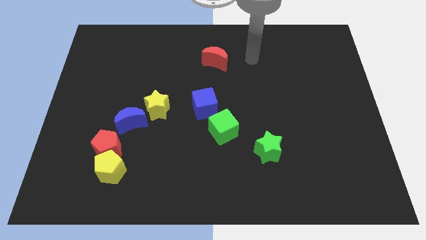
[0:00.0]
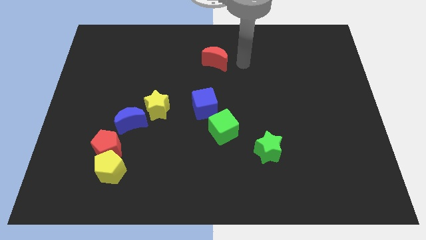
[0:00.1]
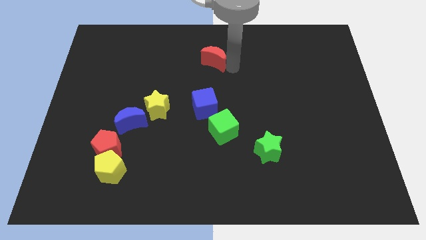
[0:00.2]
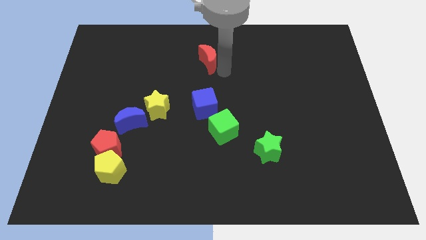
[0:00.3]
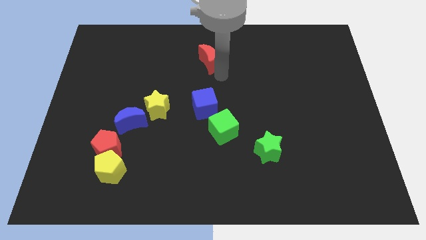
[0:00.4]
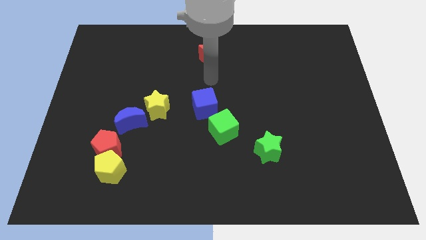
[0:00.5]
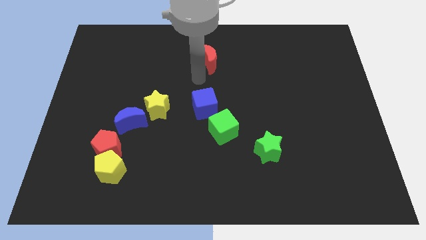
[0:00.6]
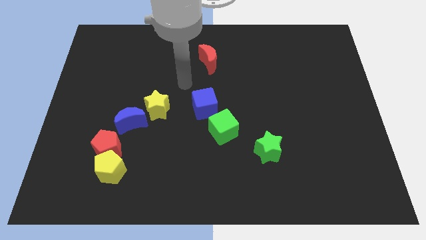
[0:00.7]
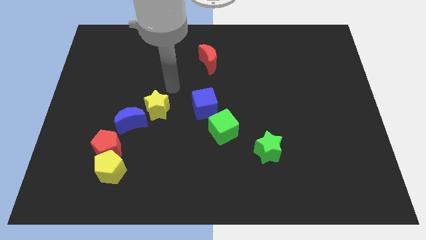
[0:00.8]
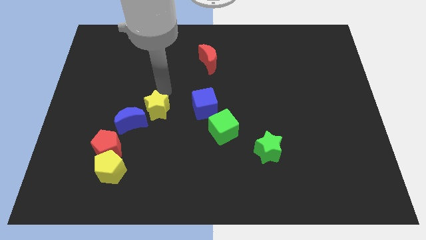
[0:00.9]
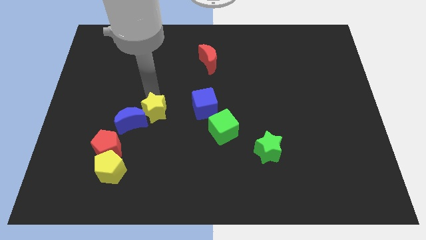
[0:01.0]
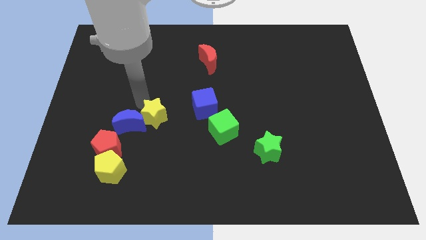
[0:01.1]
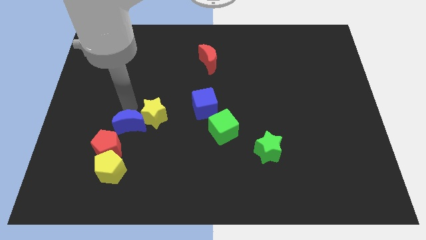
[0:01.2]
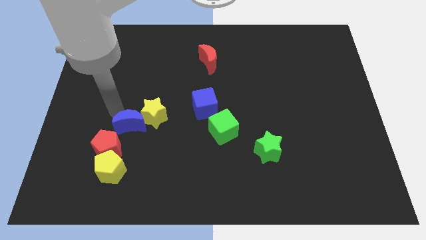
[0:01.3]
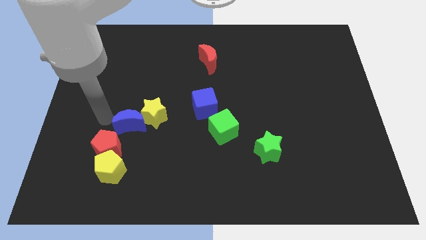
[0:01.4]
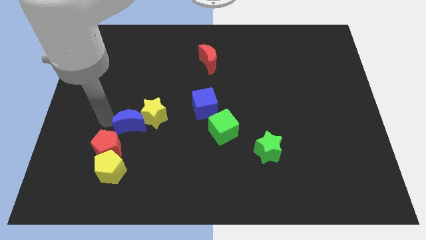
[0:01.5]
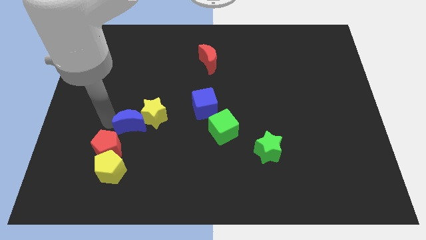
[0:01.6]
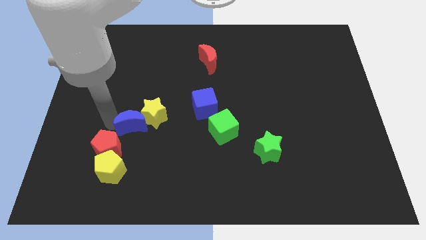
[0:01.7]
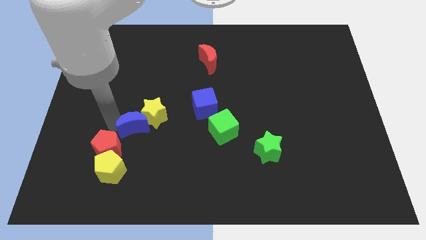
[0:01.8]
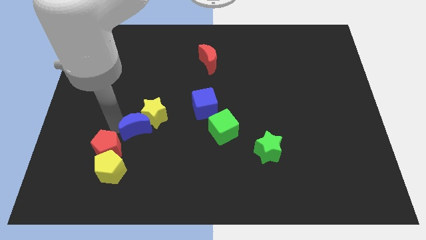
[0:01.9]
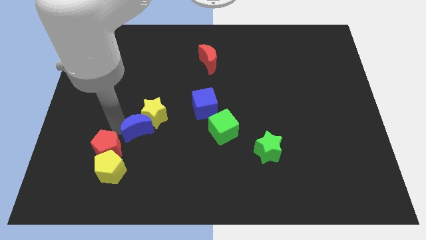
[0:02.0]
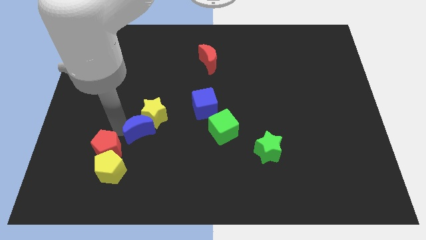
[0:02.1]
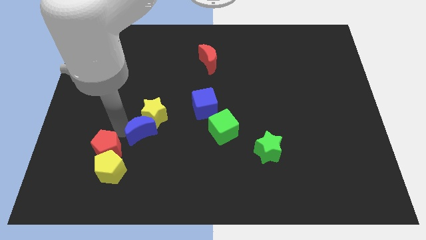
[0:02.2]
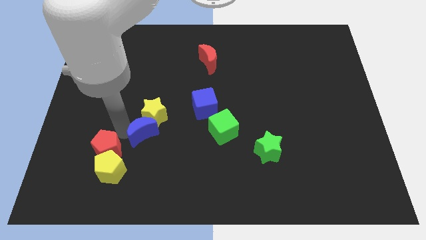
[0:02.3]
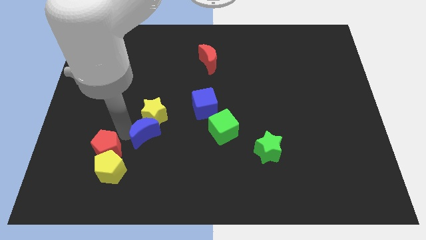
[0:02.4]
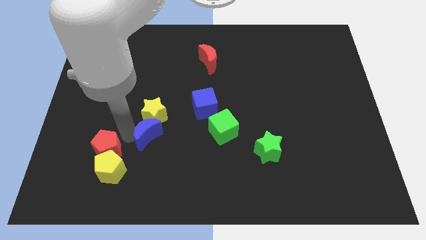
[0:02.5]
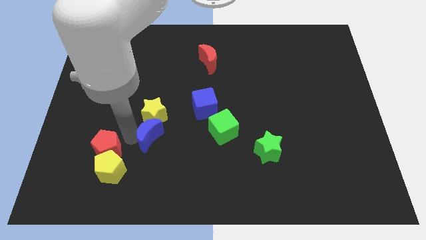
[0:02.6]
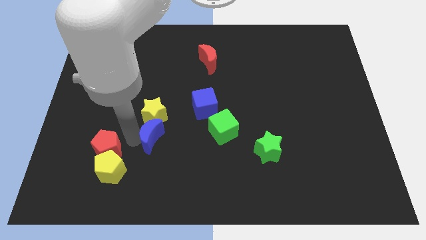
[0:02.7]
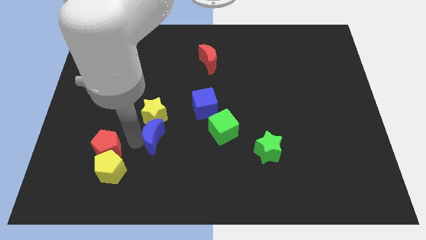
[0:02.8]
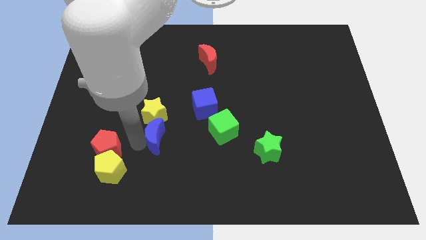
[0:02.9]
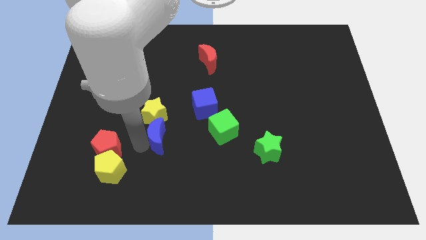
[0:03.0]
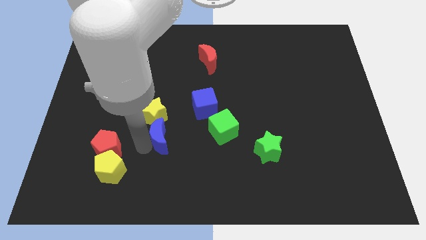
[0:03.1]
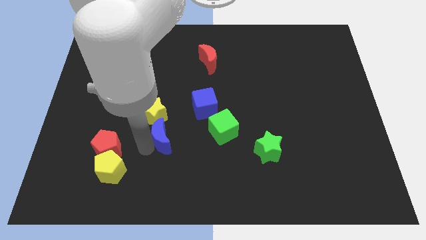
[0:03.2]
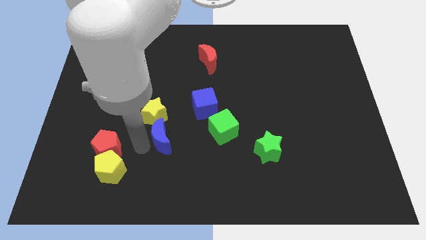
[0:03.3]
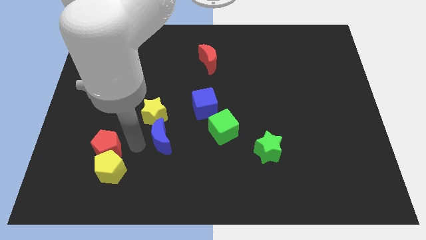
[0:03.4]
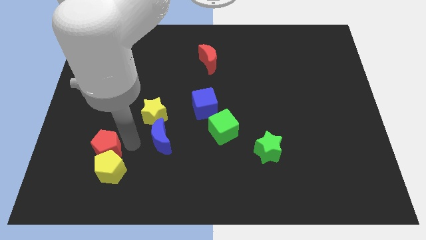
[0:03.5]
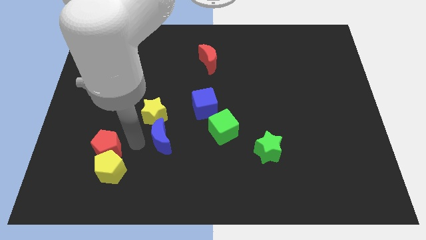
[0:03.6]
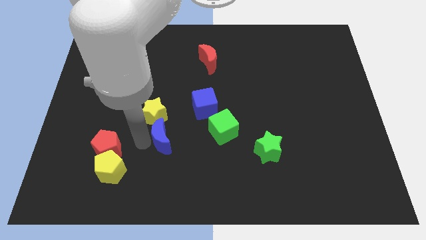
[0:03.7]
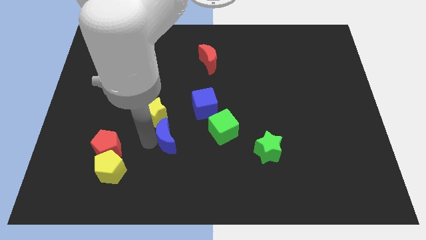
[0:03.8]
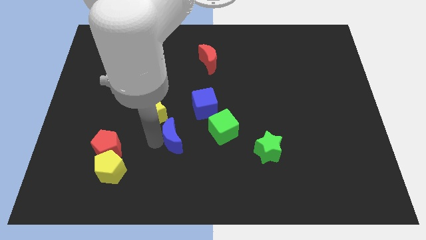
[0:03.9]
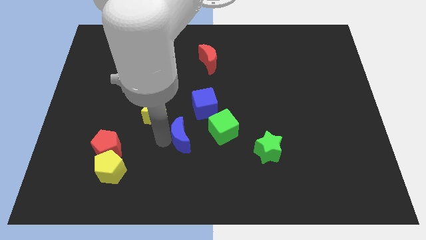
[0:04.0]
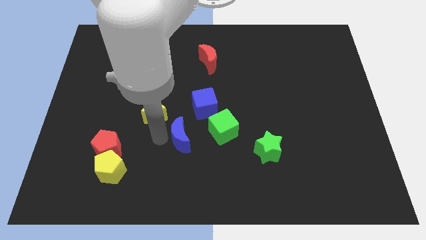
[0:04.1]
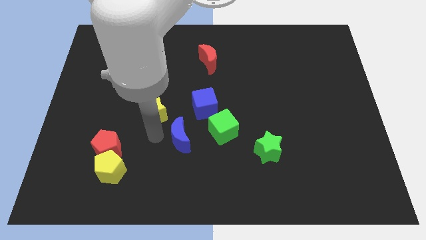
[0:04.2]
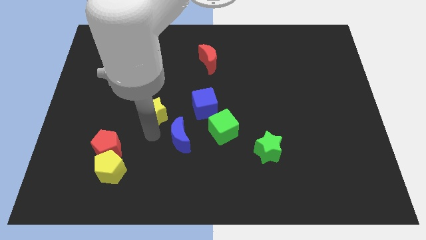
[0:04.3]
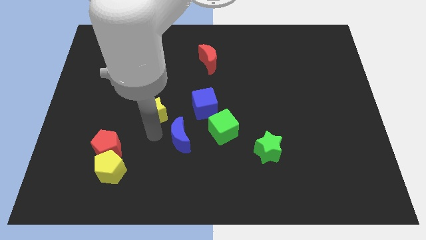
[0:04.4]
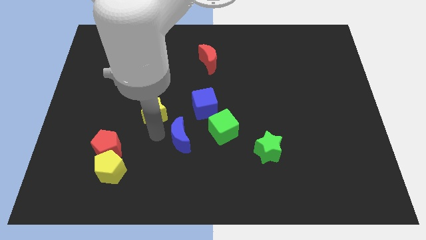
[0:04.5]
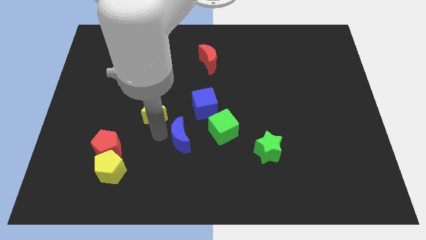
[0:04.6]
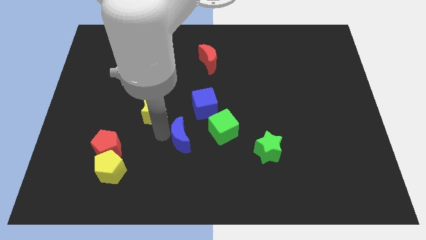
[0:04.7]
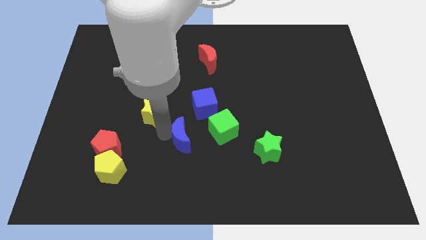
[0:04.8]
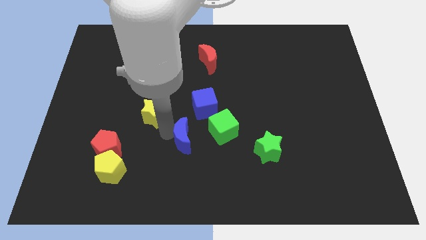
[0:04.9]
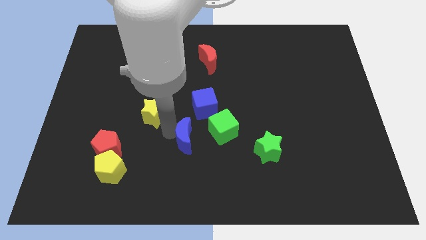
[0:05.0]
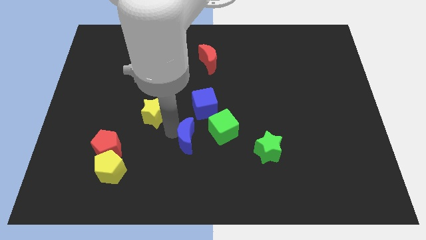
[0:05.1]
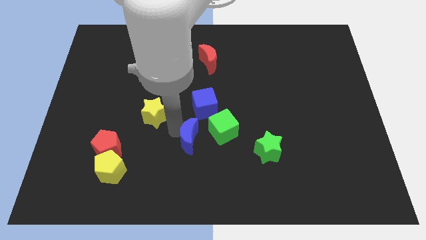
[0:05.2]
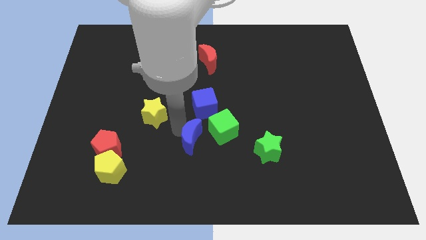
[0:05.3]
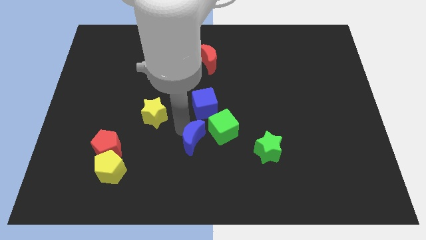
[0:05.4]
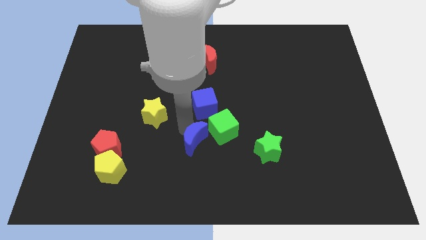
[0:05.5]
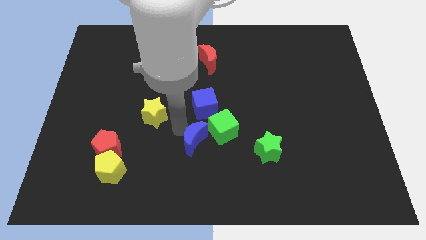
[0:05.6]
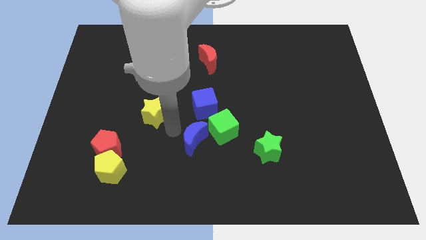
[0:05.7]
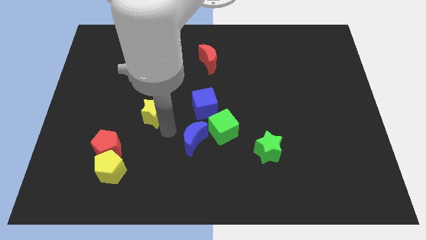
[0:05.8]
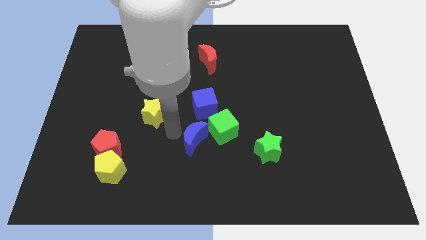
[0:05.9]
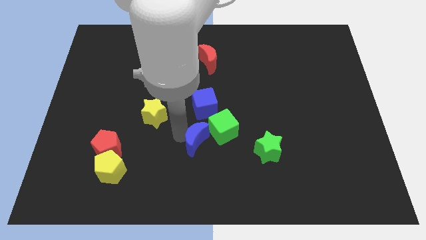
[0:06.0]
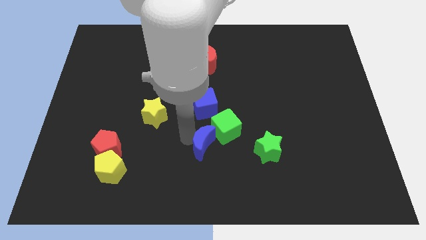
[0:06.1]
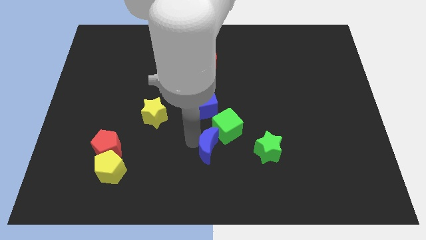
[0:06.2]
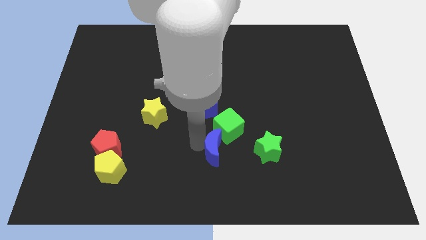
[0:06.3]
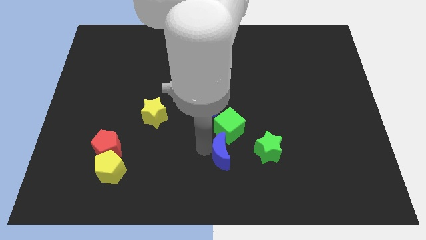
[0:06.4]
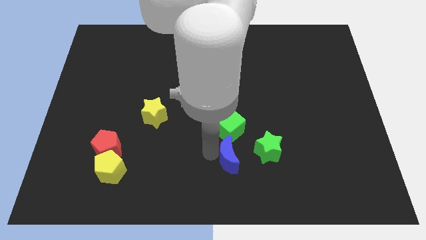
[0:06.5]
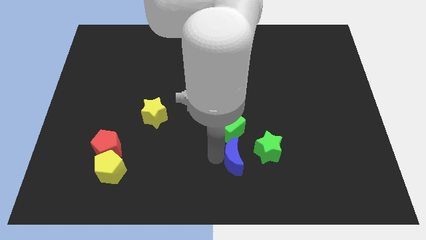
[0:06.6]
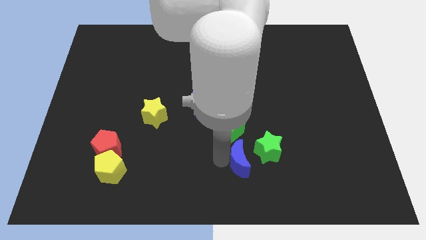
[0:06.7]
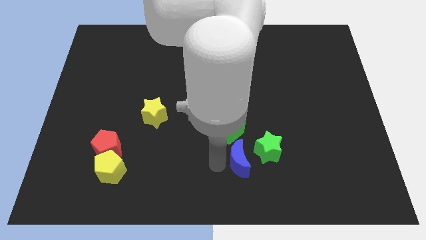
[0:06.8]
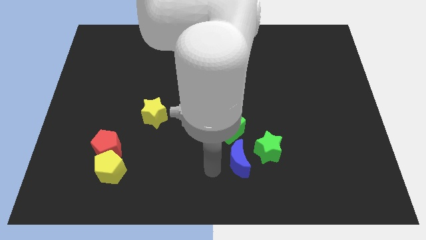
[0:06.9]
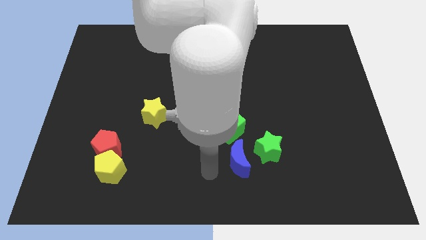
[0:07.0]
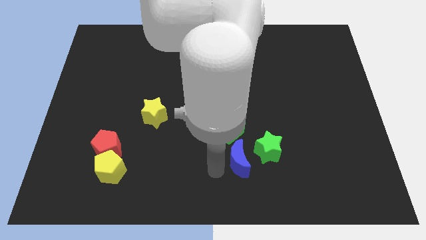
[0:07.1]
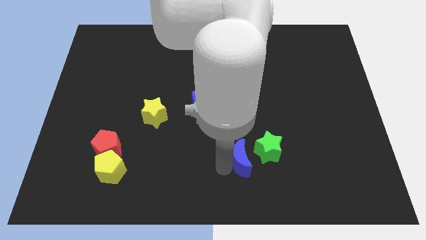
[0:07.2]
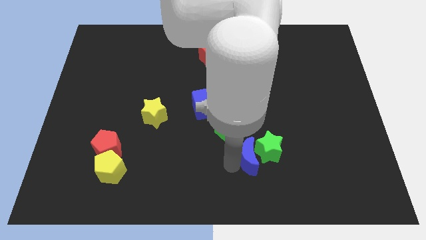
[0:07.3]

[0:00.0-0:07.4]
slide the blue moon close to the green star
